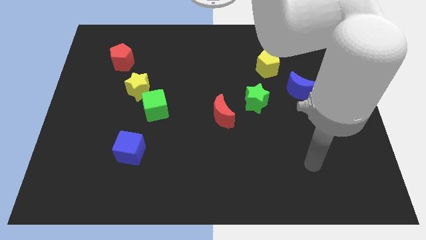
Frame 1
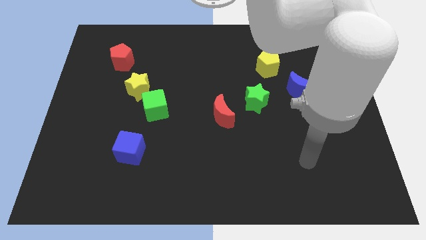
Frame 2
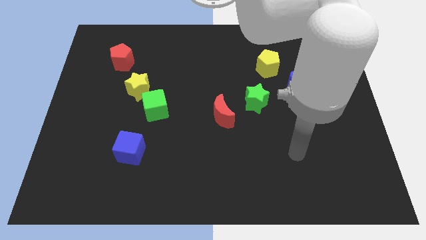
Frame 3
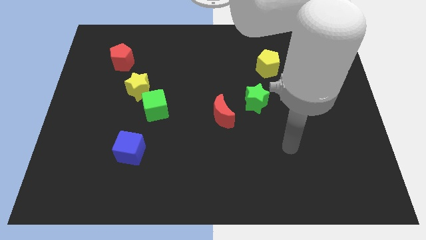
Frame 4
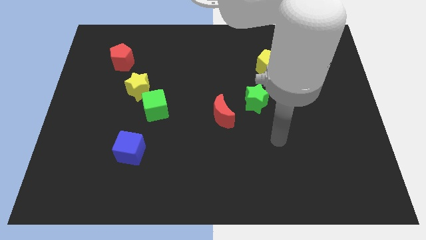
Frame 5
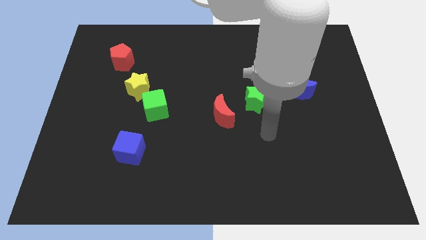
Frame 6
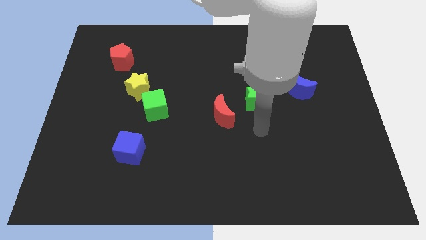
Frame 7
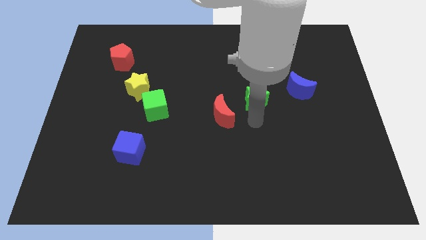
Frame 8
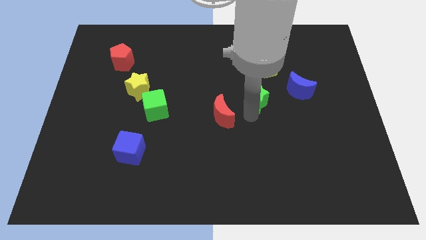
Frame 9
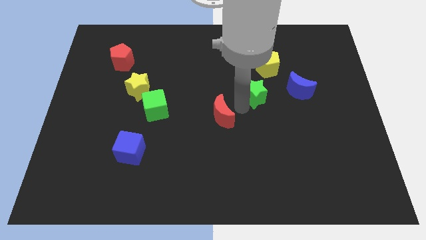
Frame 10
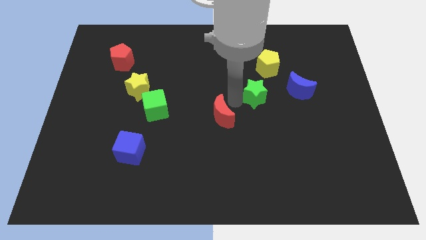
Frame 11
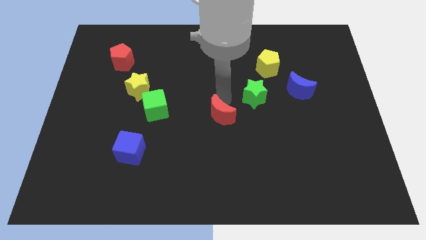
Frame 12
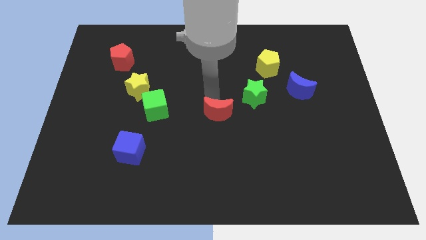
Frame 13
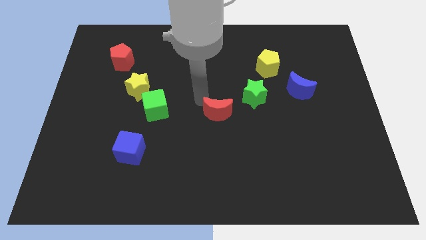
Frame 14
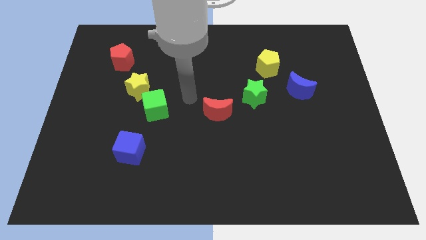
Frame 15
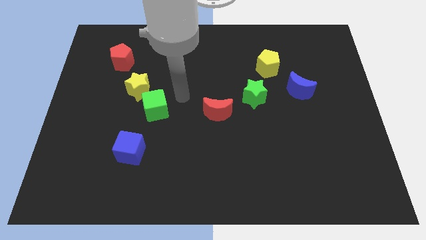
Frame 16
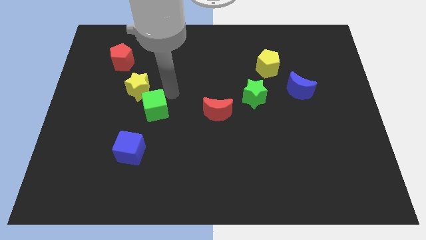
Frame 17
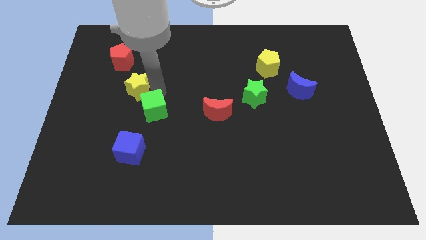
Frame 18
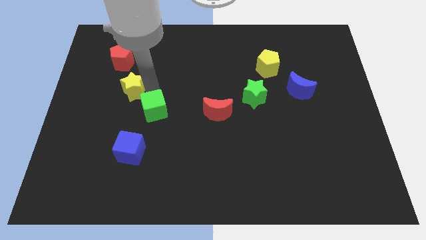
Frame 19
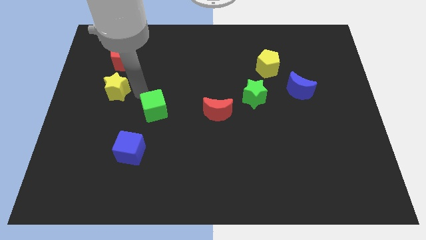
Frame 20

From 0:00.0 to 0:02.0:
move the green cube away from the yellow star

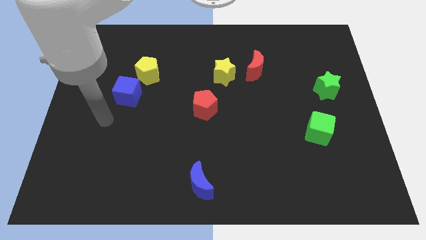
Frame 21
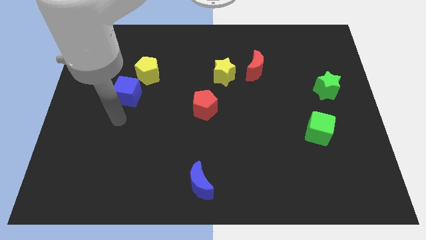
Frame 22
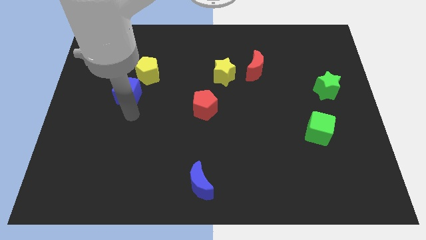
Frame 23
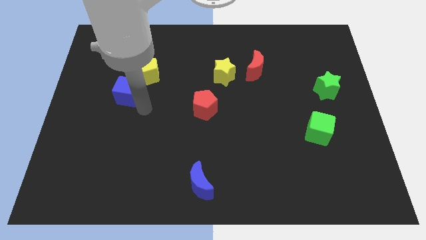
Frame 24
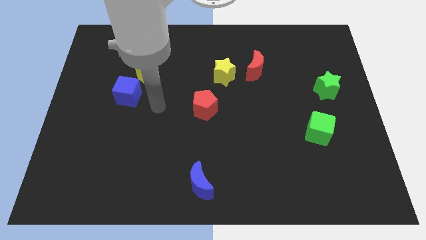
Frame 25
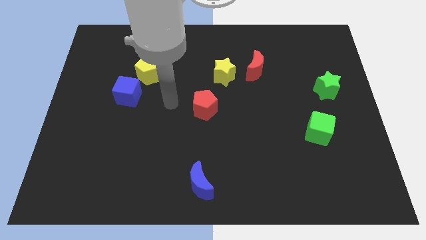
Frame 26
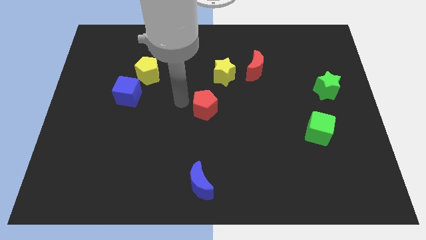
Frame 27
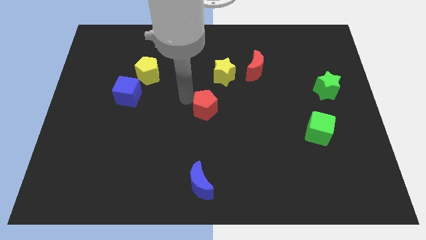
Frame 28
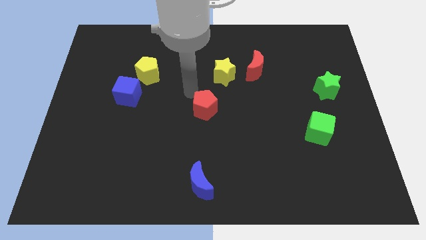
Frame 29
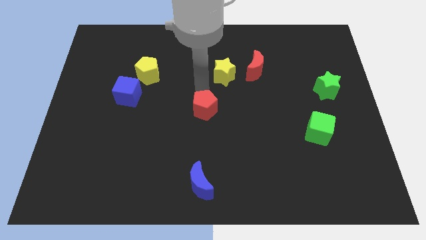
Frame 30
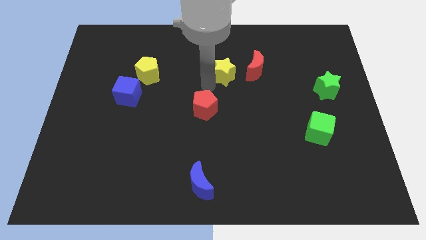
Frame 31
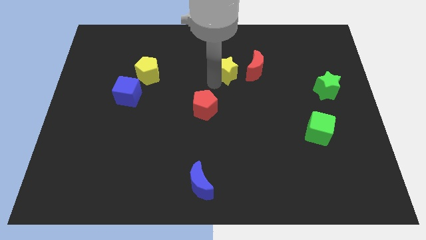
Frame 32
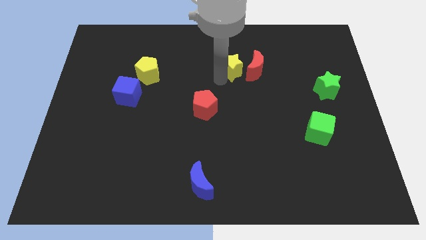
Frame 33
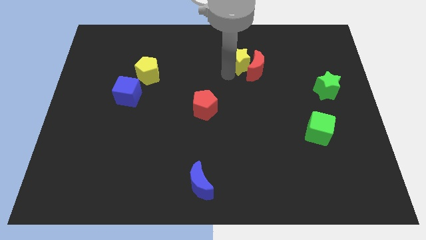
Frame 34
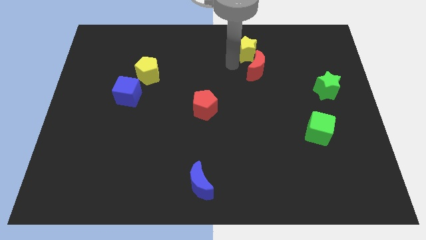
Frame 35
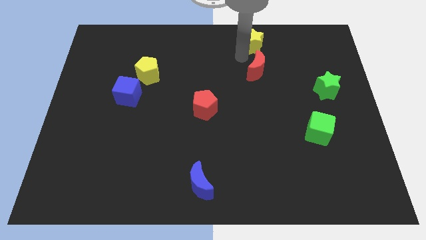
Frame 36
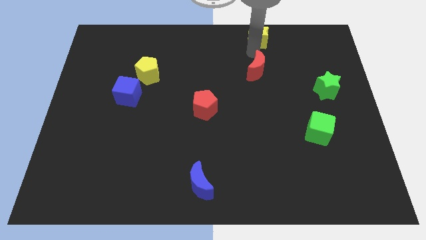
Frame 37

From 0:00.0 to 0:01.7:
separate the red moon from the yellow star

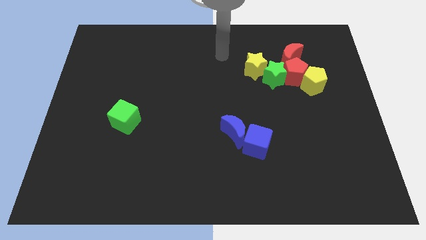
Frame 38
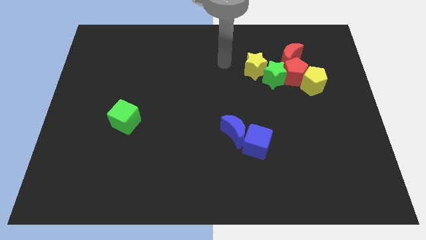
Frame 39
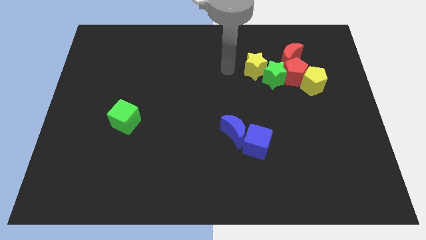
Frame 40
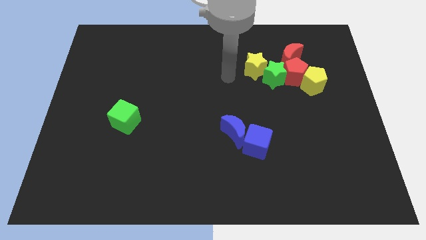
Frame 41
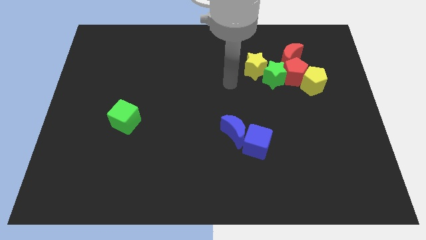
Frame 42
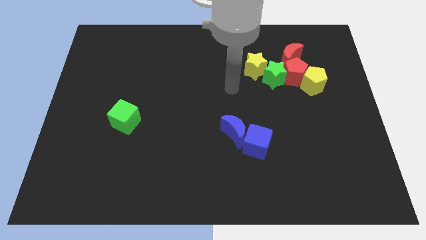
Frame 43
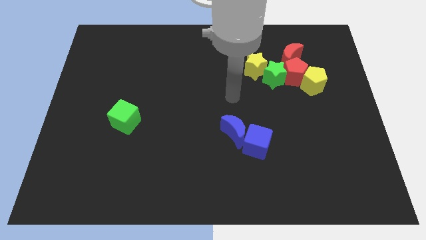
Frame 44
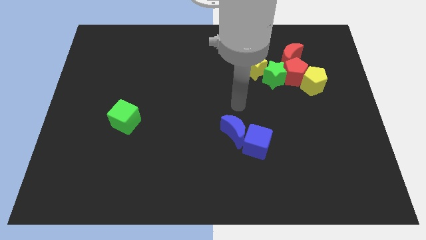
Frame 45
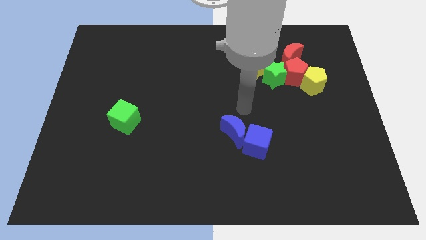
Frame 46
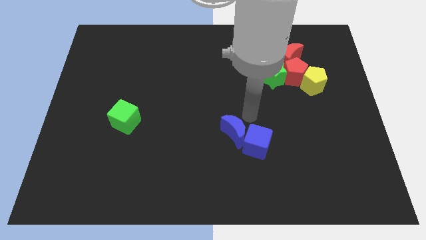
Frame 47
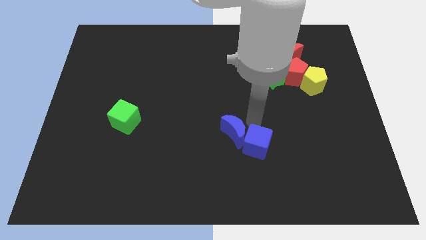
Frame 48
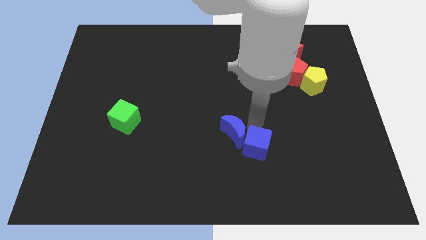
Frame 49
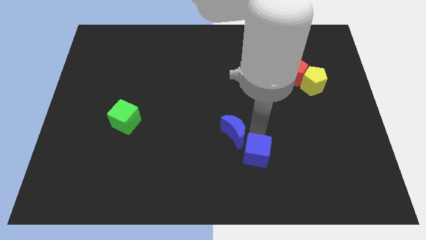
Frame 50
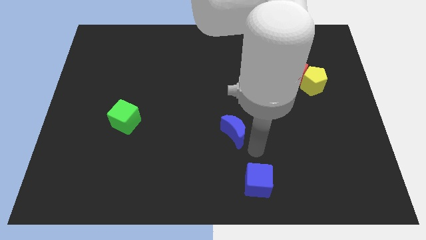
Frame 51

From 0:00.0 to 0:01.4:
pull the blue moon apart from the blue cube

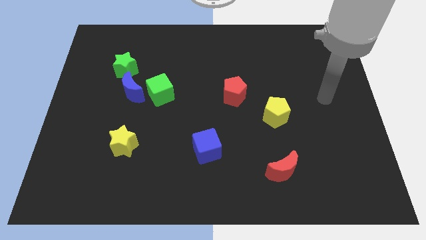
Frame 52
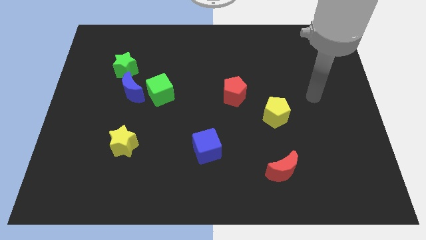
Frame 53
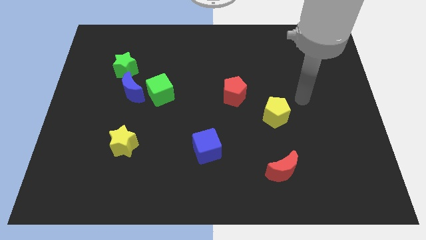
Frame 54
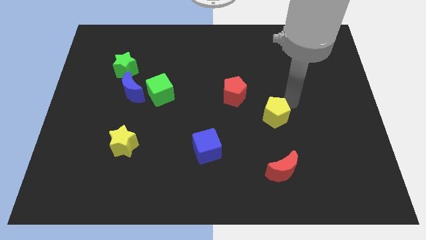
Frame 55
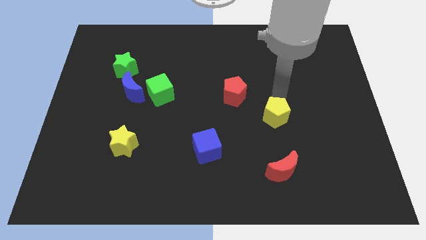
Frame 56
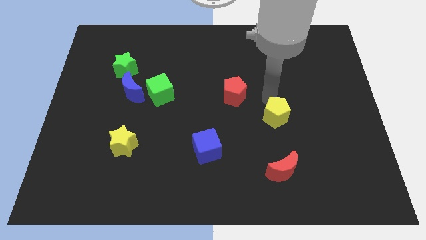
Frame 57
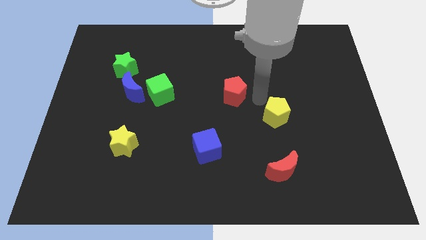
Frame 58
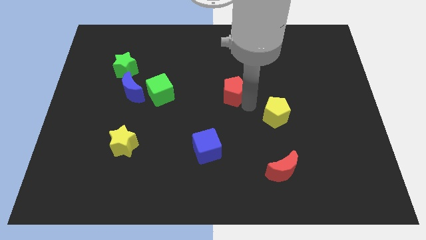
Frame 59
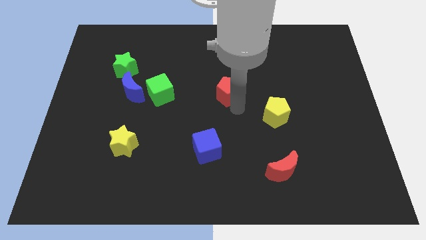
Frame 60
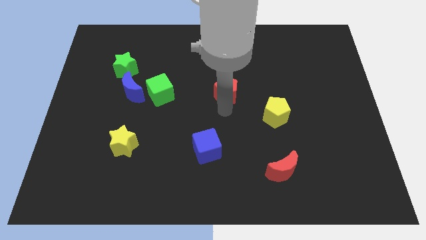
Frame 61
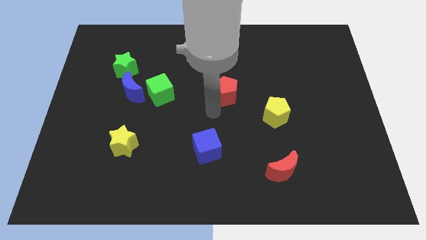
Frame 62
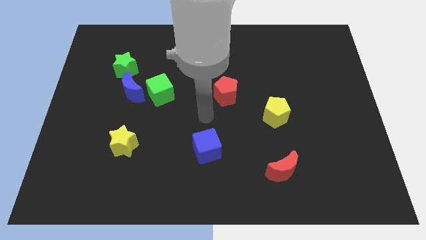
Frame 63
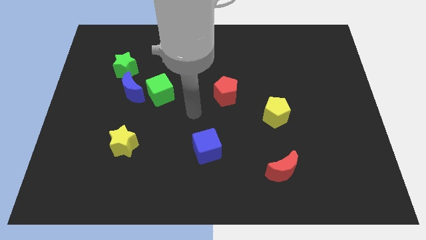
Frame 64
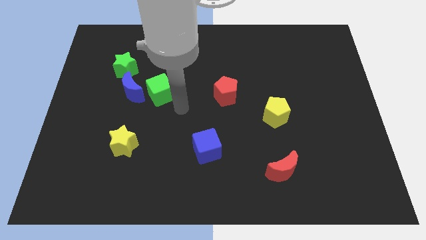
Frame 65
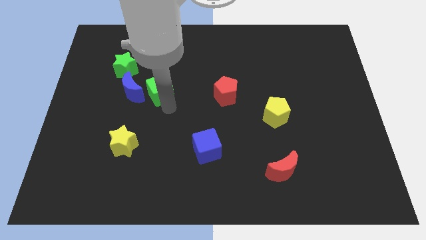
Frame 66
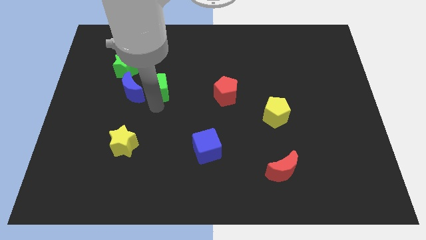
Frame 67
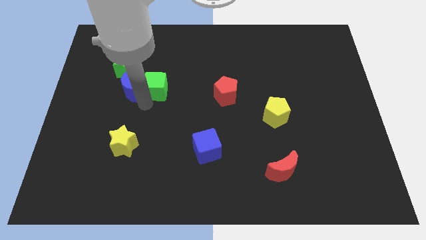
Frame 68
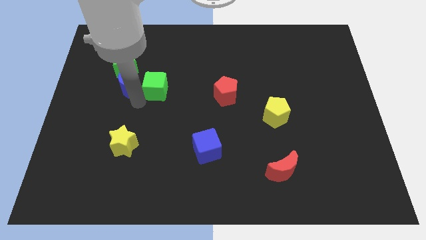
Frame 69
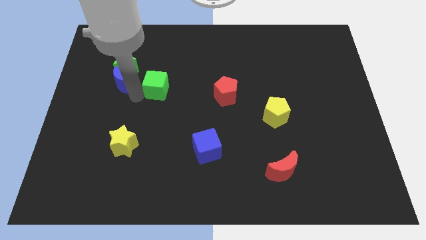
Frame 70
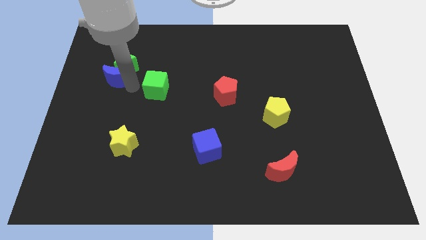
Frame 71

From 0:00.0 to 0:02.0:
separate the green cube from the blue moon

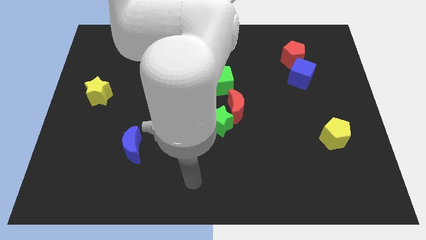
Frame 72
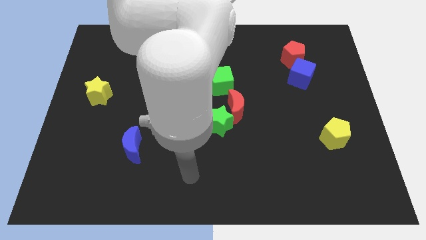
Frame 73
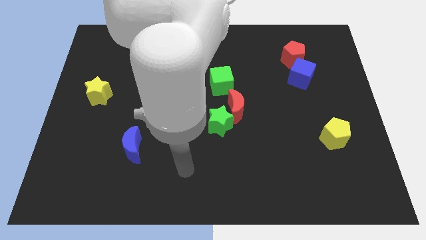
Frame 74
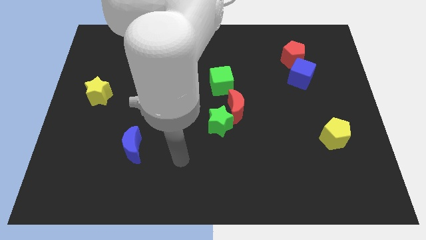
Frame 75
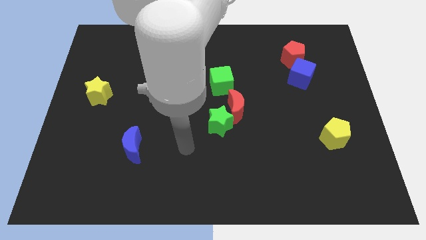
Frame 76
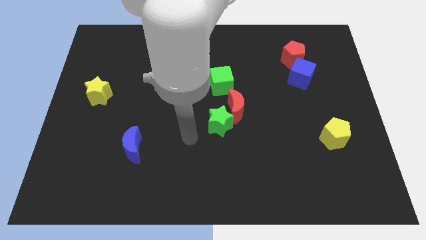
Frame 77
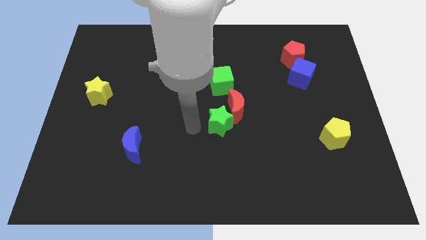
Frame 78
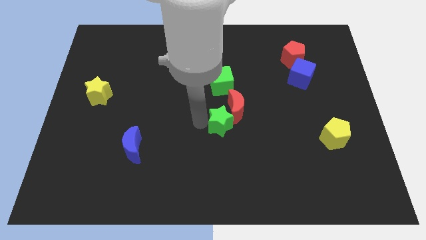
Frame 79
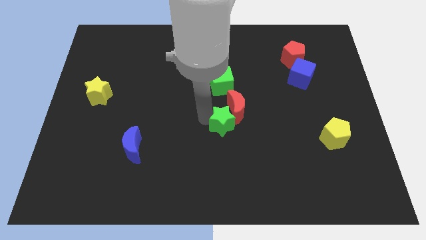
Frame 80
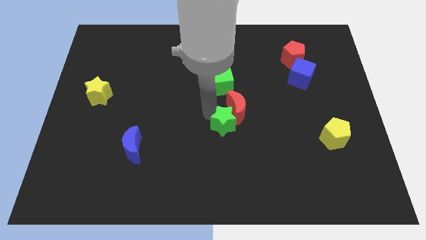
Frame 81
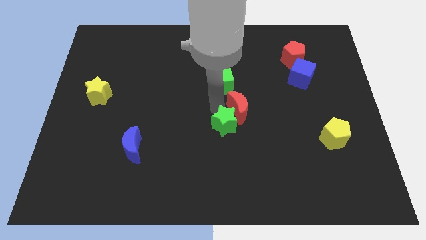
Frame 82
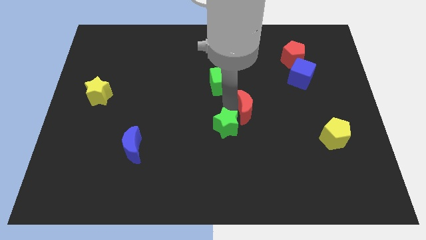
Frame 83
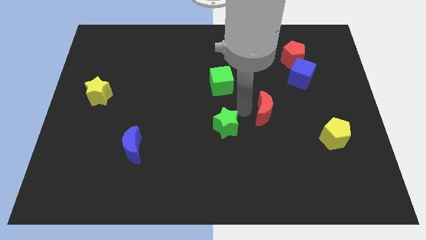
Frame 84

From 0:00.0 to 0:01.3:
pull the green star apart from the red moon

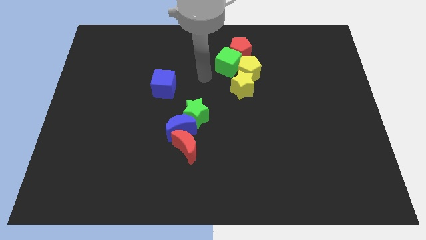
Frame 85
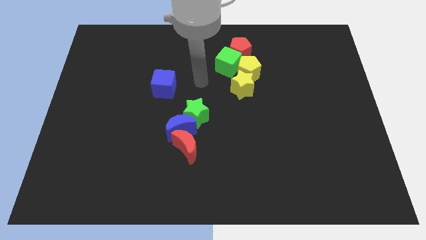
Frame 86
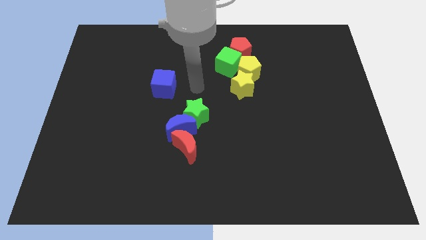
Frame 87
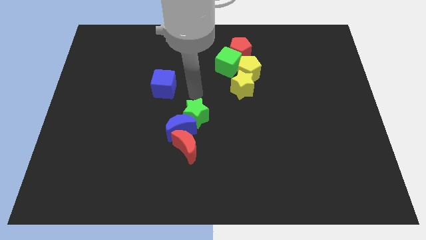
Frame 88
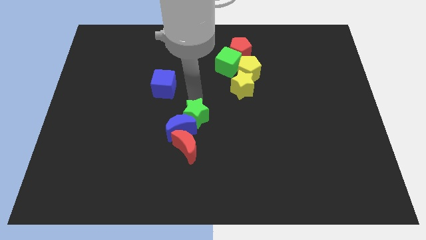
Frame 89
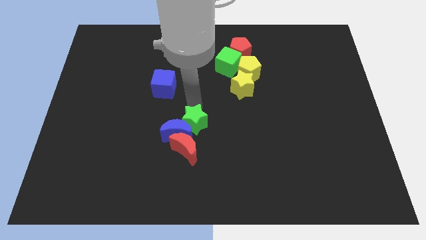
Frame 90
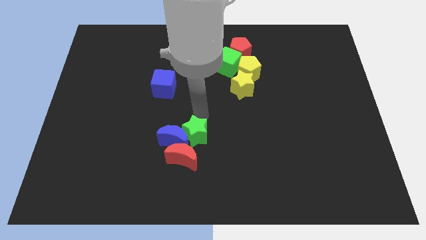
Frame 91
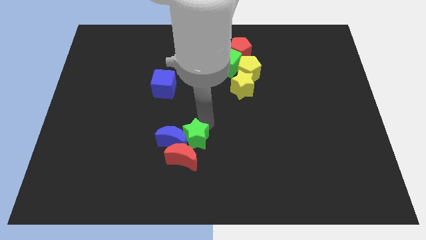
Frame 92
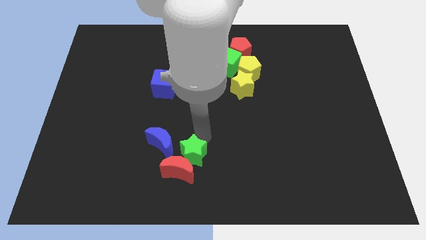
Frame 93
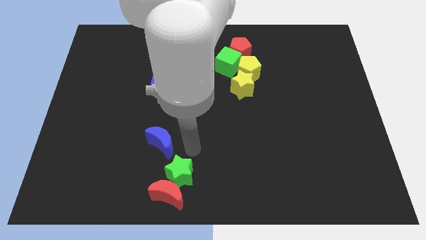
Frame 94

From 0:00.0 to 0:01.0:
pull the blue moon apart from the green star and red moon
